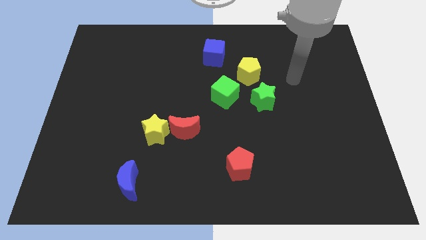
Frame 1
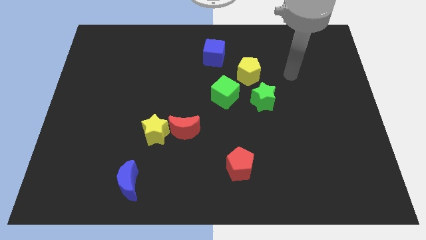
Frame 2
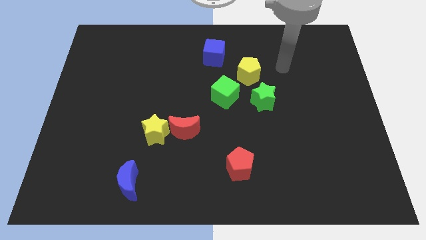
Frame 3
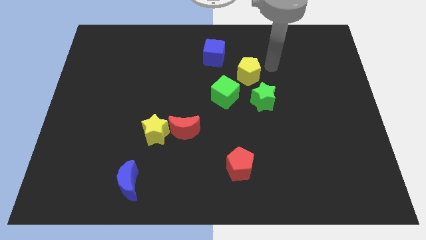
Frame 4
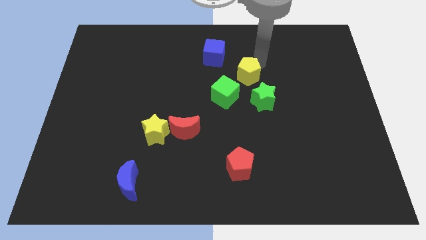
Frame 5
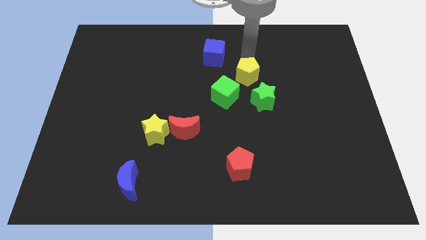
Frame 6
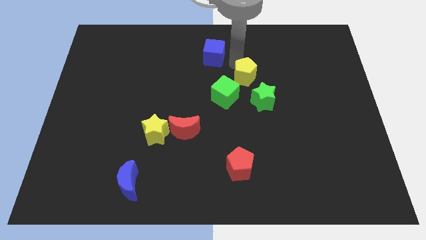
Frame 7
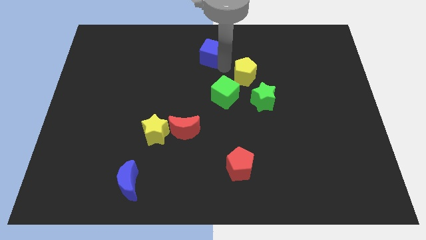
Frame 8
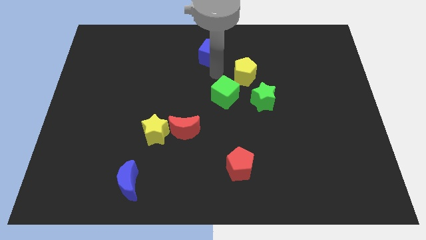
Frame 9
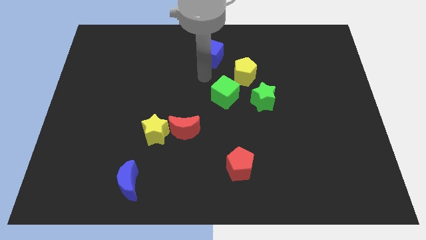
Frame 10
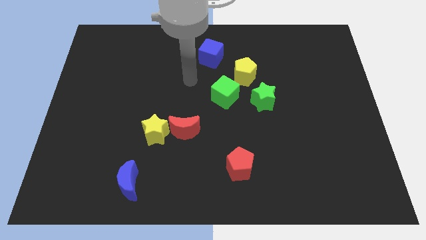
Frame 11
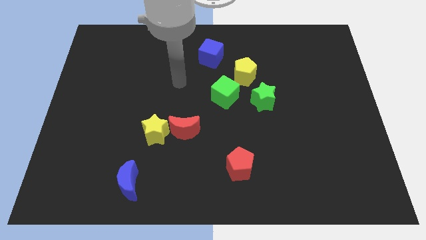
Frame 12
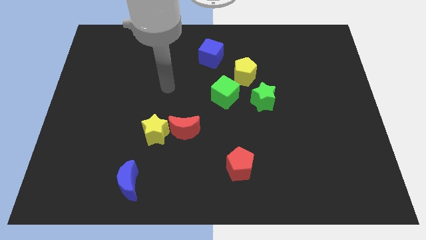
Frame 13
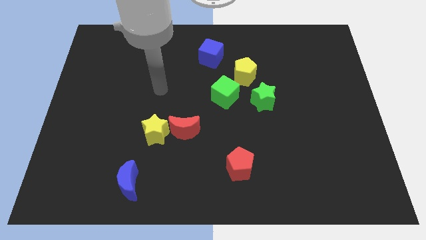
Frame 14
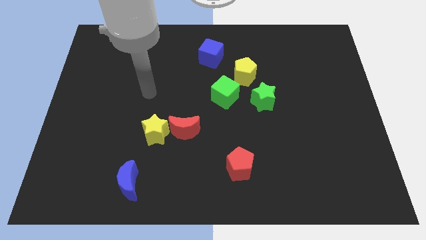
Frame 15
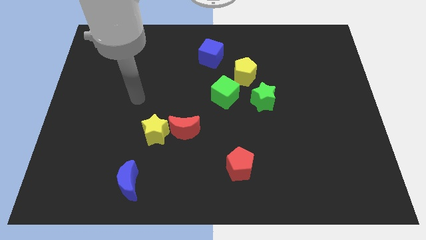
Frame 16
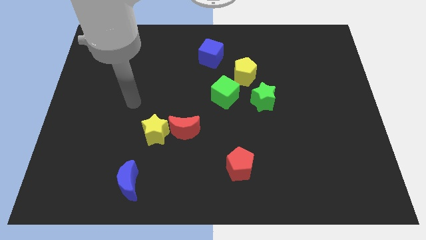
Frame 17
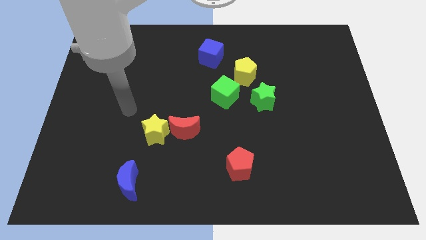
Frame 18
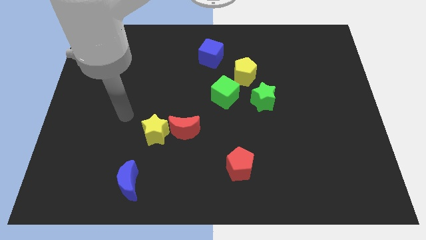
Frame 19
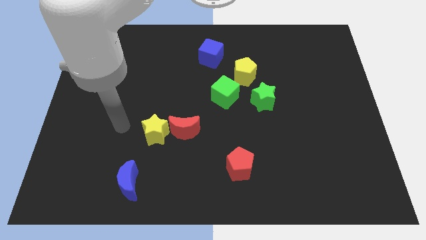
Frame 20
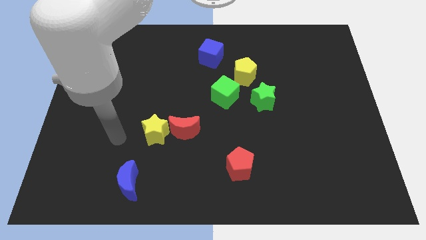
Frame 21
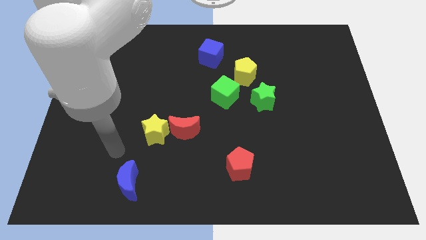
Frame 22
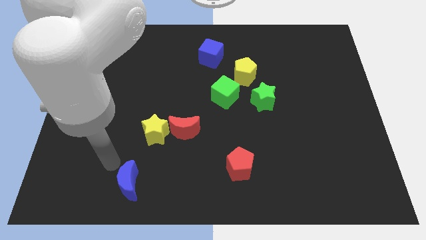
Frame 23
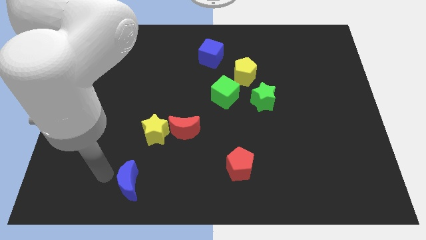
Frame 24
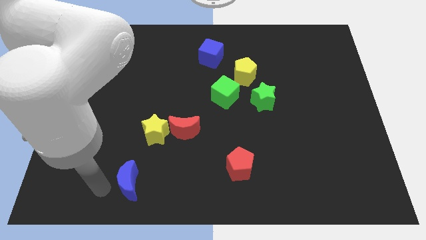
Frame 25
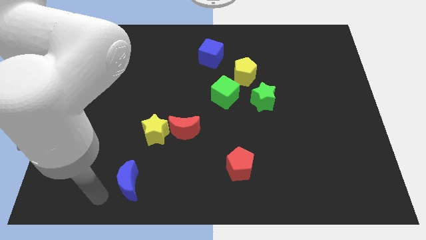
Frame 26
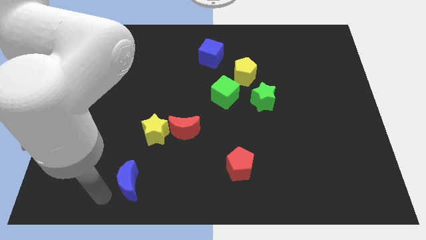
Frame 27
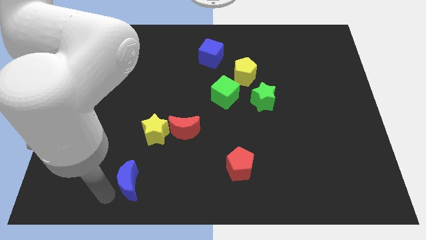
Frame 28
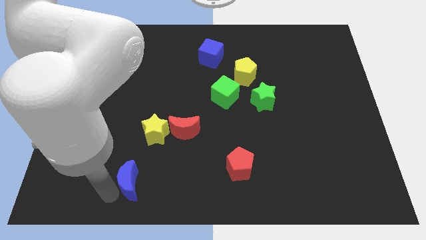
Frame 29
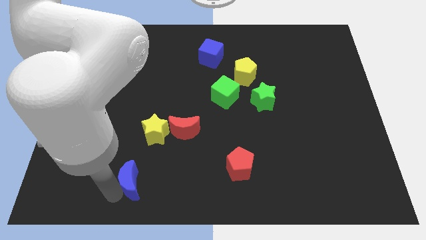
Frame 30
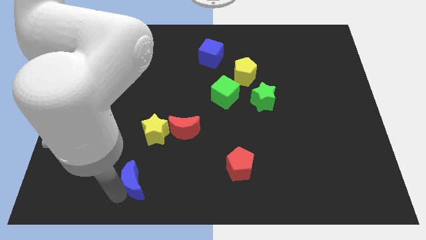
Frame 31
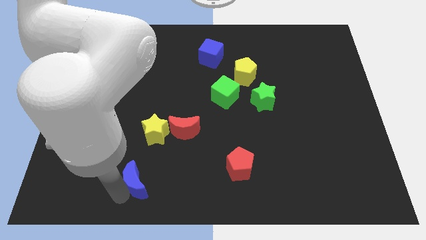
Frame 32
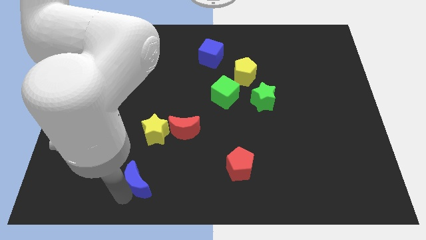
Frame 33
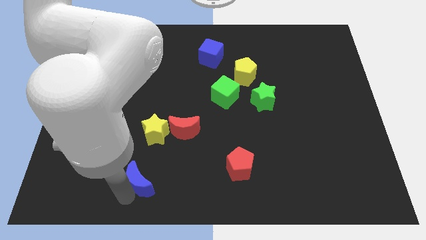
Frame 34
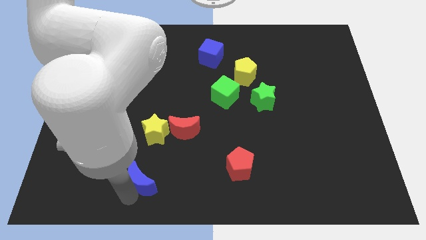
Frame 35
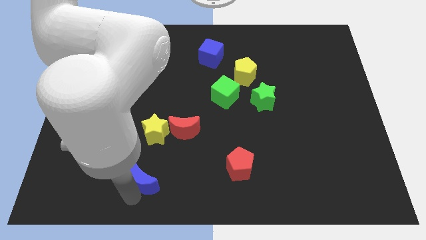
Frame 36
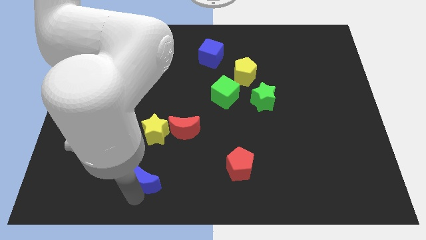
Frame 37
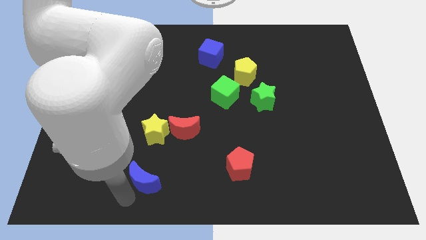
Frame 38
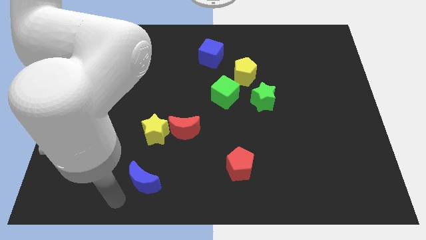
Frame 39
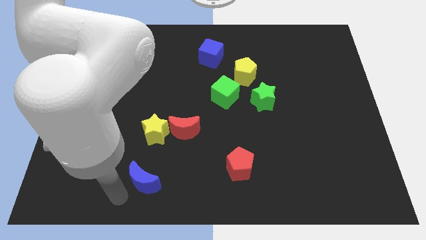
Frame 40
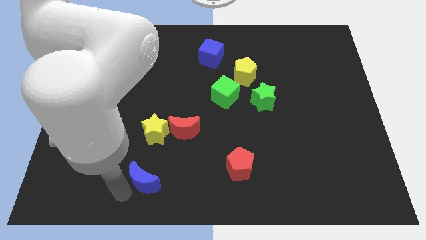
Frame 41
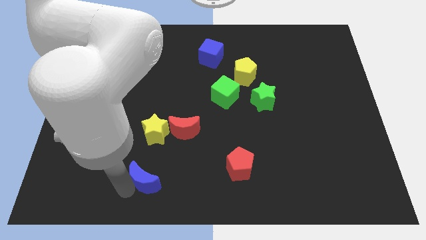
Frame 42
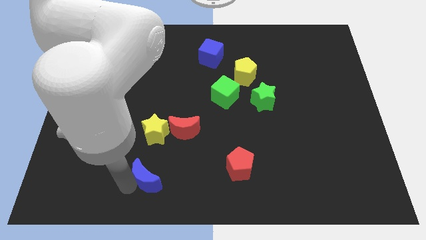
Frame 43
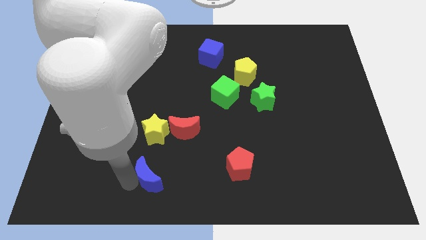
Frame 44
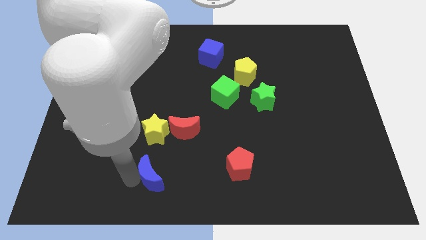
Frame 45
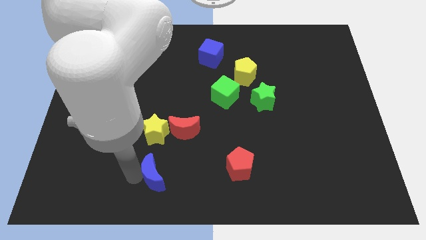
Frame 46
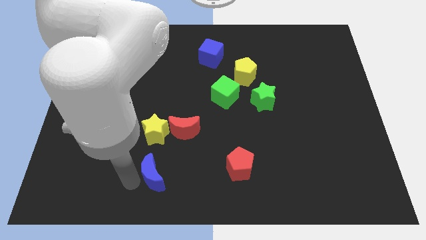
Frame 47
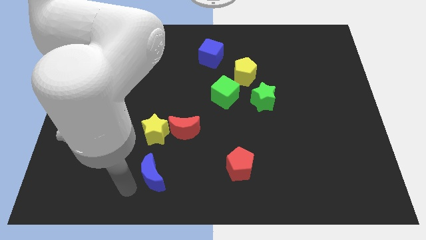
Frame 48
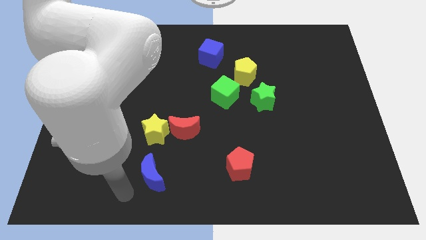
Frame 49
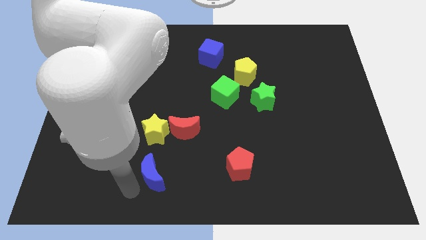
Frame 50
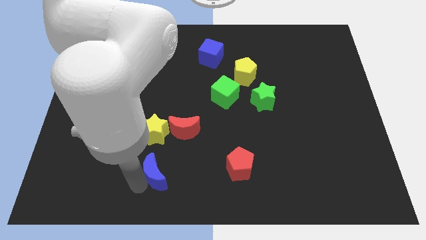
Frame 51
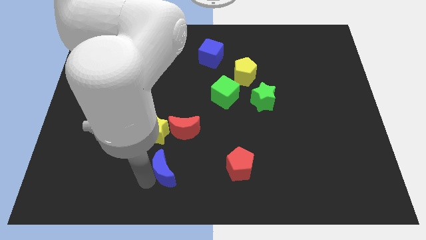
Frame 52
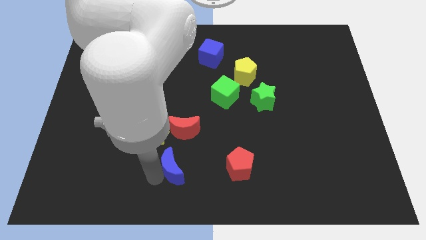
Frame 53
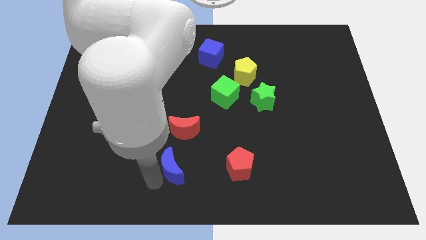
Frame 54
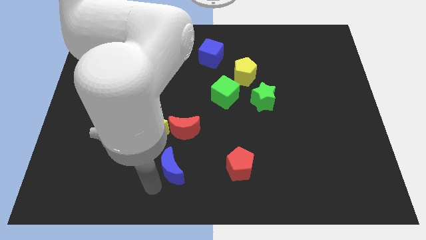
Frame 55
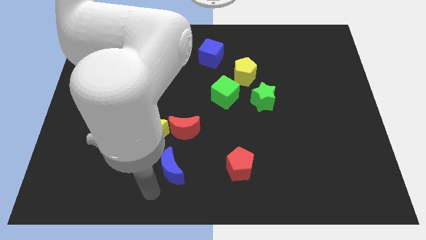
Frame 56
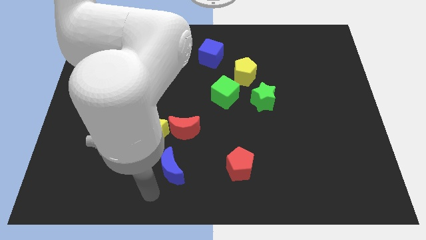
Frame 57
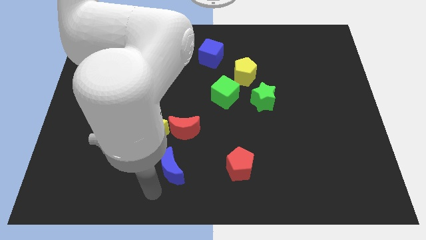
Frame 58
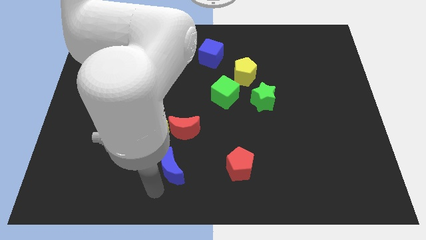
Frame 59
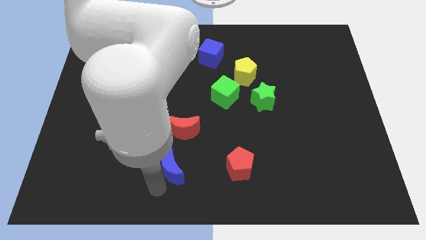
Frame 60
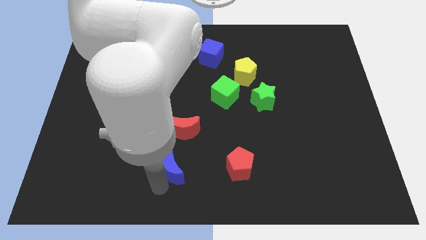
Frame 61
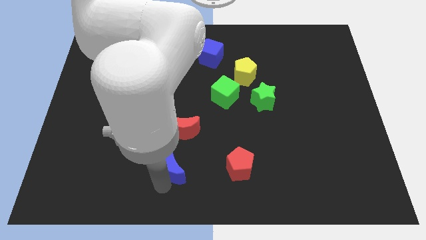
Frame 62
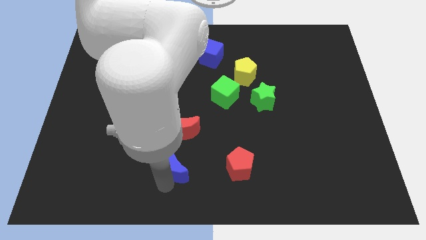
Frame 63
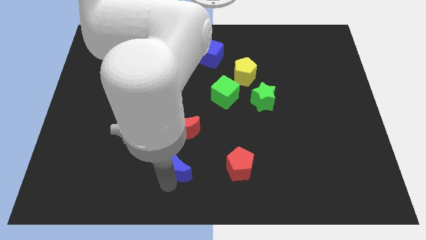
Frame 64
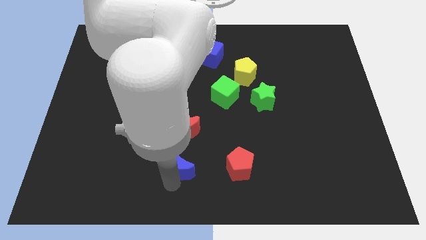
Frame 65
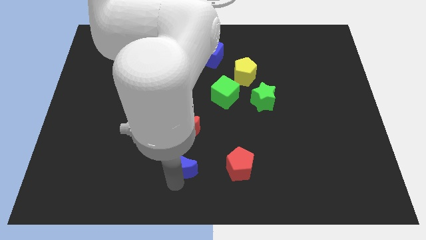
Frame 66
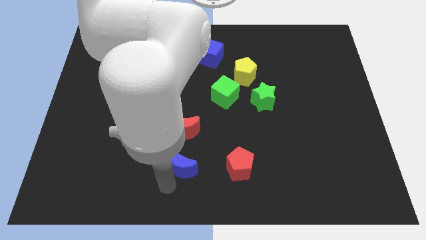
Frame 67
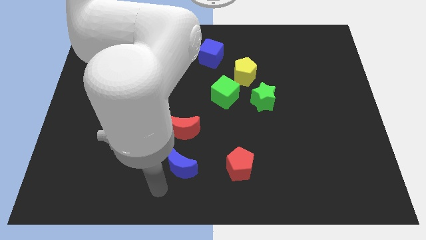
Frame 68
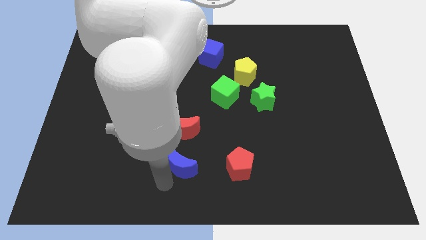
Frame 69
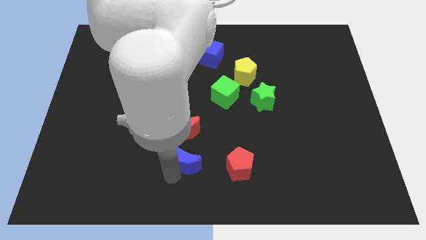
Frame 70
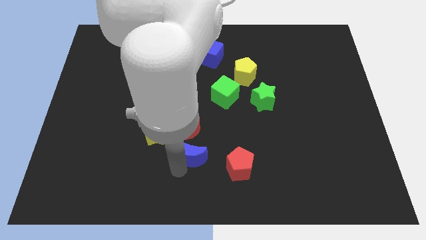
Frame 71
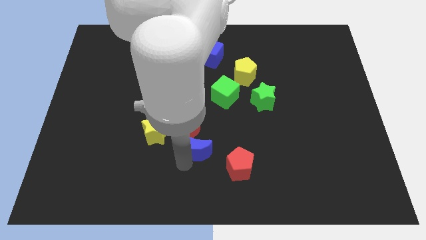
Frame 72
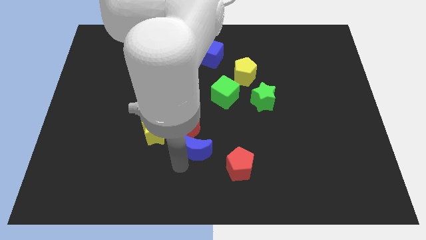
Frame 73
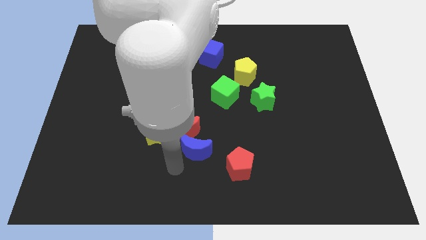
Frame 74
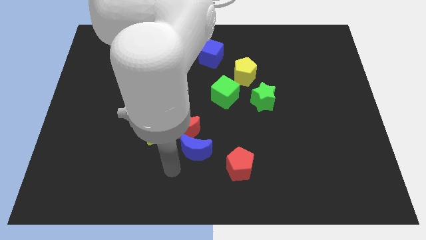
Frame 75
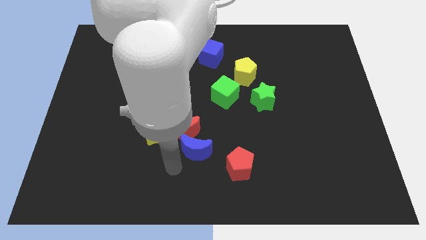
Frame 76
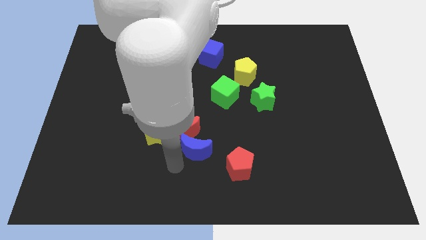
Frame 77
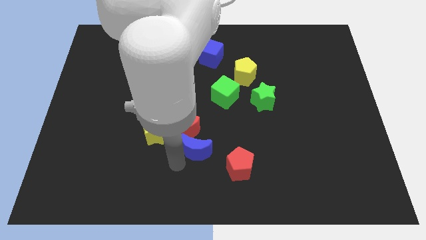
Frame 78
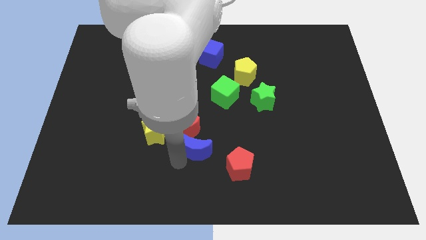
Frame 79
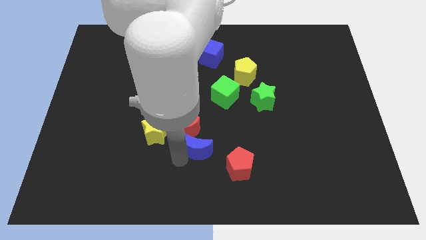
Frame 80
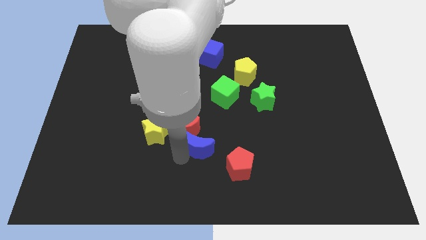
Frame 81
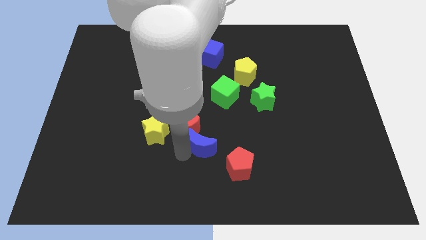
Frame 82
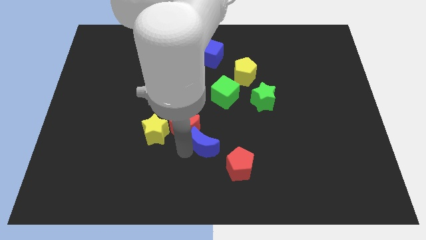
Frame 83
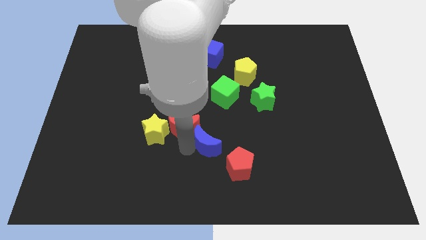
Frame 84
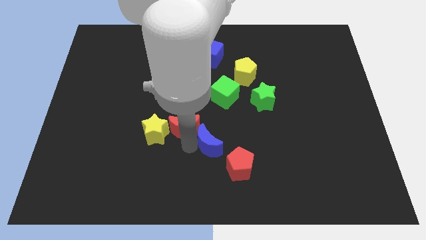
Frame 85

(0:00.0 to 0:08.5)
move the blue moon to the bottom side of the green cube
